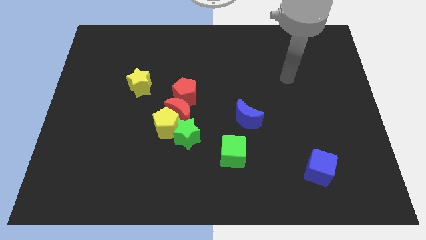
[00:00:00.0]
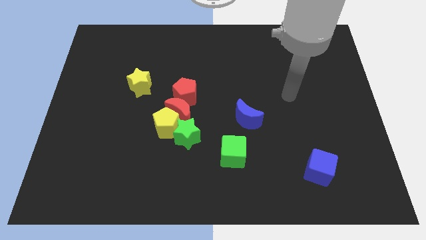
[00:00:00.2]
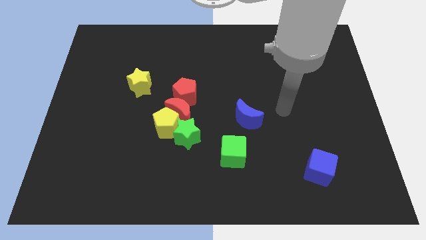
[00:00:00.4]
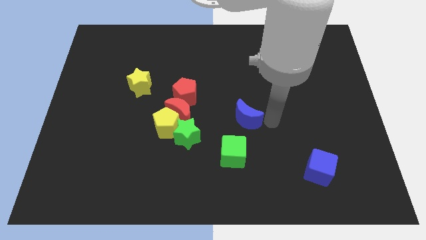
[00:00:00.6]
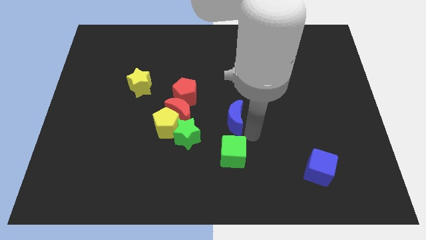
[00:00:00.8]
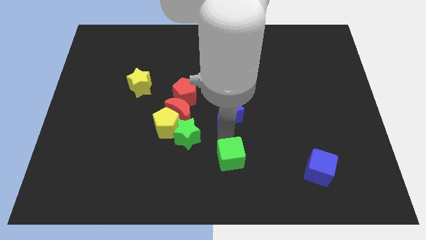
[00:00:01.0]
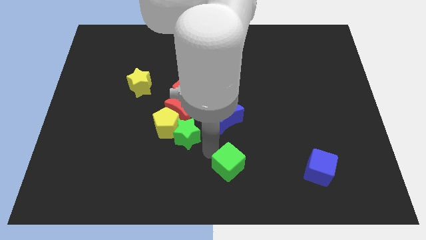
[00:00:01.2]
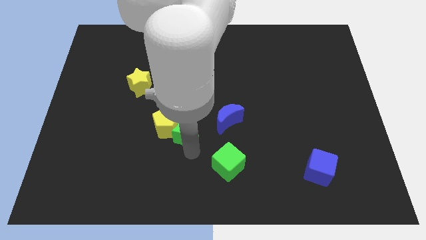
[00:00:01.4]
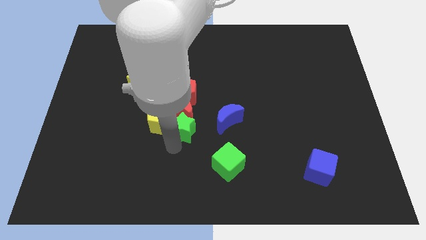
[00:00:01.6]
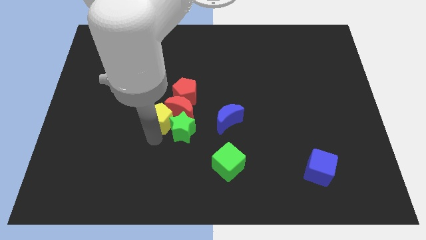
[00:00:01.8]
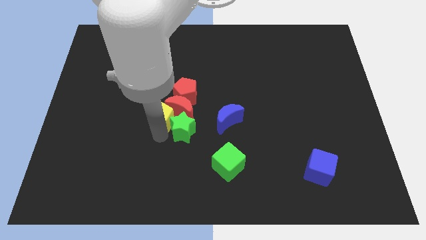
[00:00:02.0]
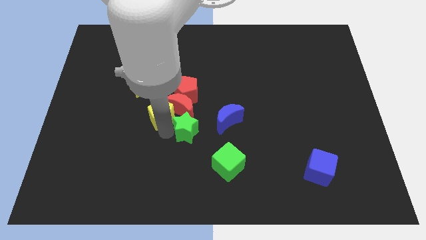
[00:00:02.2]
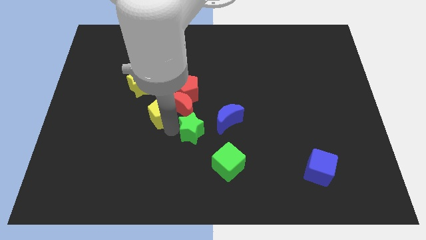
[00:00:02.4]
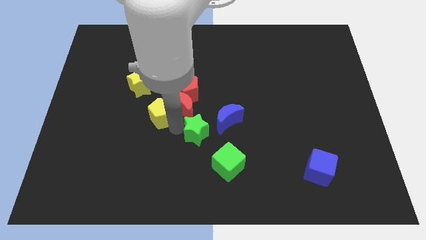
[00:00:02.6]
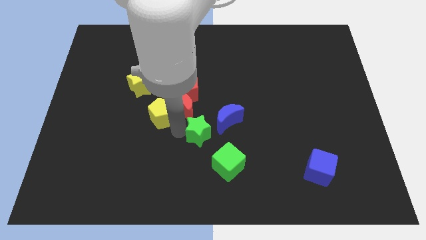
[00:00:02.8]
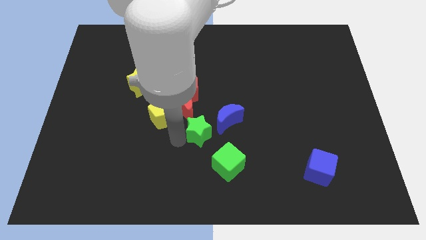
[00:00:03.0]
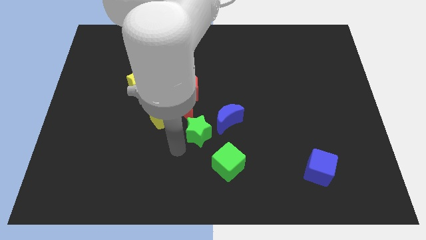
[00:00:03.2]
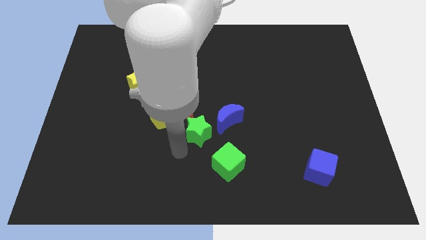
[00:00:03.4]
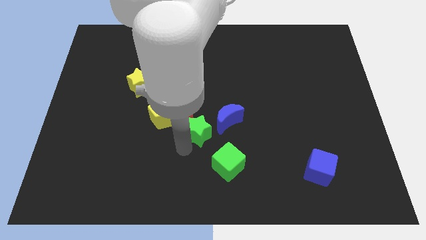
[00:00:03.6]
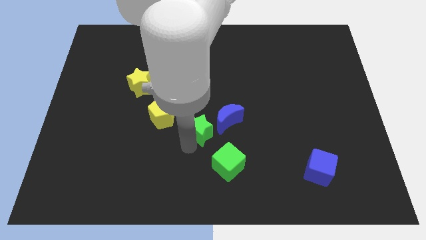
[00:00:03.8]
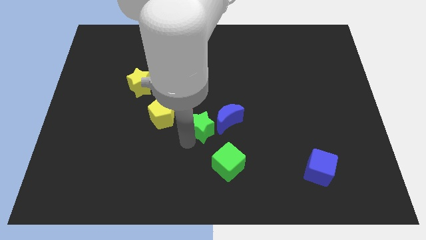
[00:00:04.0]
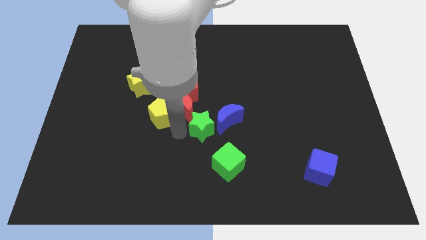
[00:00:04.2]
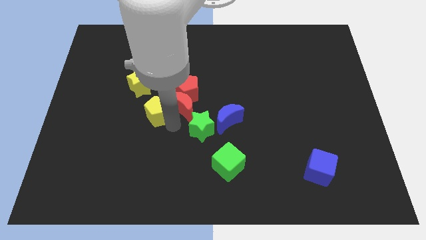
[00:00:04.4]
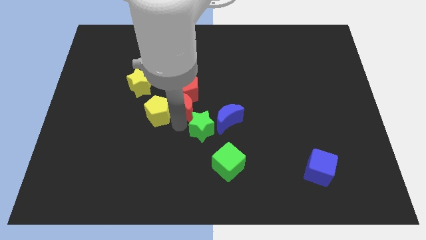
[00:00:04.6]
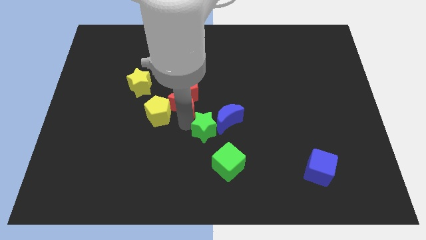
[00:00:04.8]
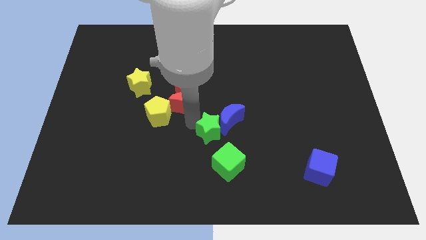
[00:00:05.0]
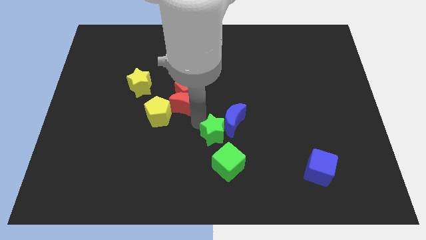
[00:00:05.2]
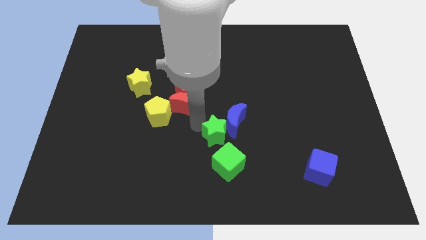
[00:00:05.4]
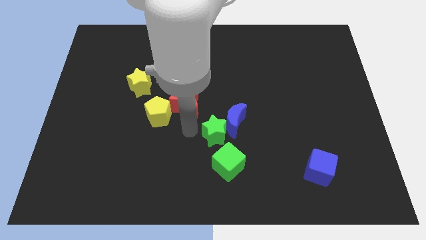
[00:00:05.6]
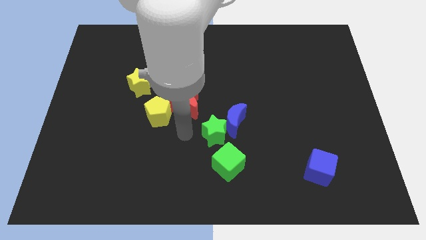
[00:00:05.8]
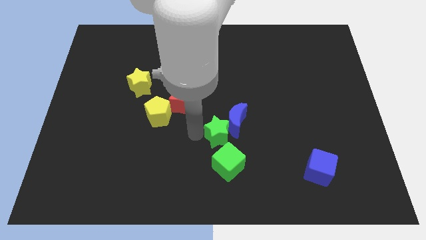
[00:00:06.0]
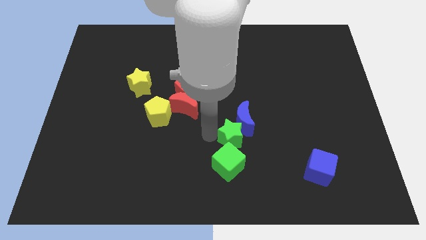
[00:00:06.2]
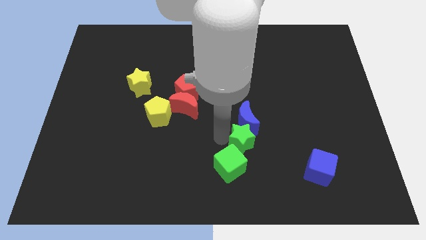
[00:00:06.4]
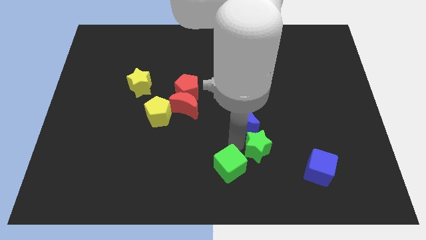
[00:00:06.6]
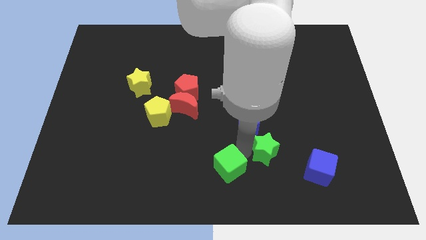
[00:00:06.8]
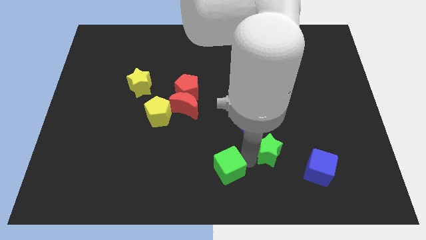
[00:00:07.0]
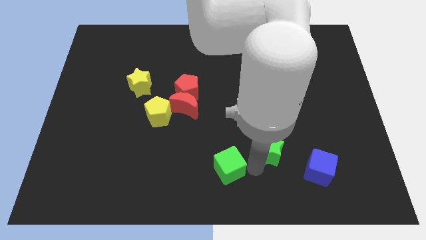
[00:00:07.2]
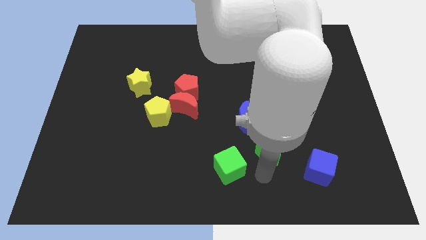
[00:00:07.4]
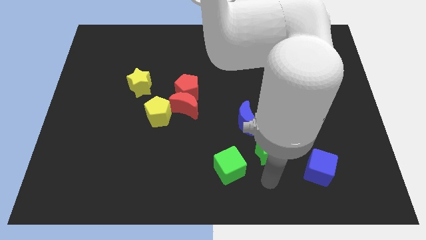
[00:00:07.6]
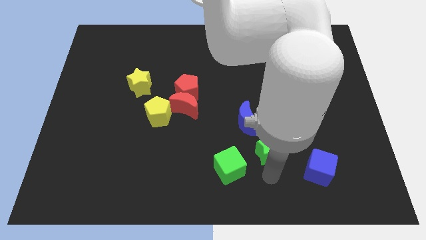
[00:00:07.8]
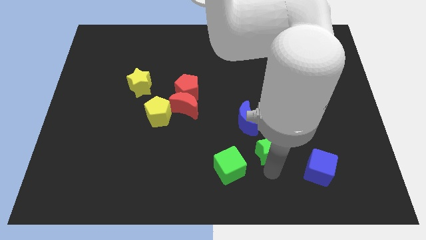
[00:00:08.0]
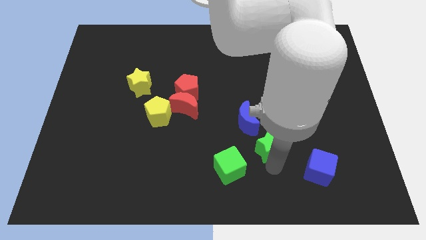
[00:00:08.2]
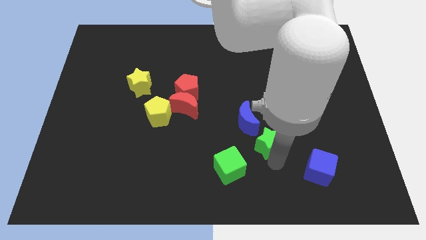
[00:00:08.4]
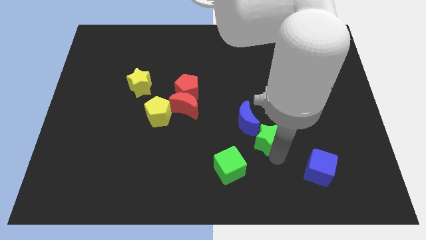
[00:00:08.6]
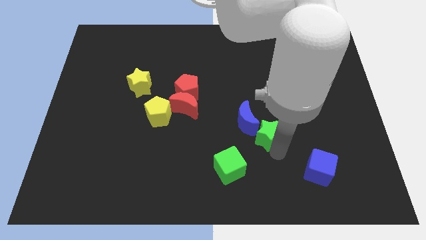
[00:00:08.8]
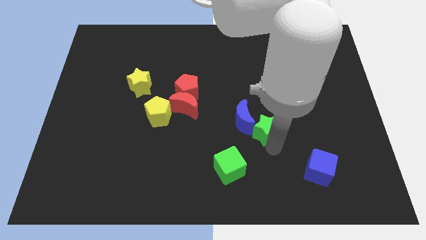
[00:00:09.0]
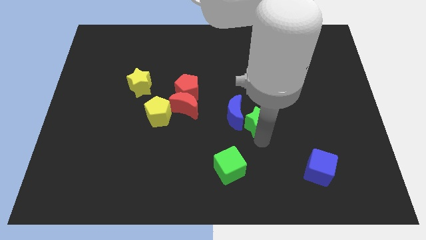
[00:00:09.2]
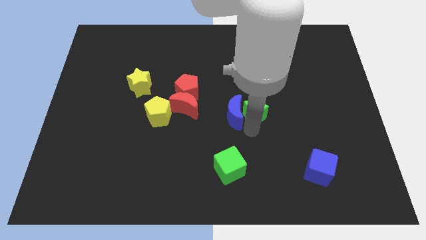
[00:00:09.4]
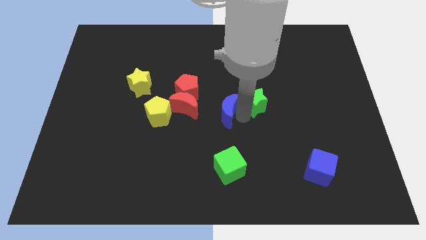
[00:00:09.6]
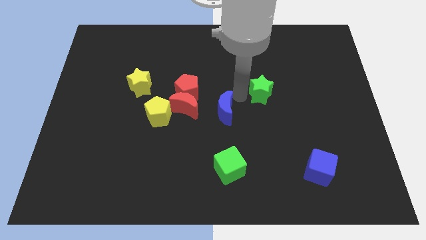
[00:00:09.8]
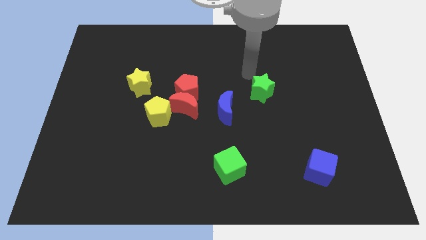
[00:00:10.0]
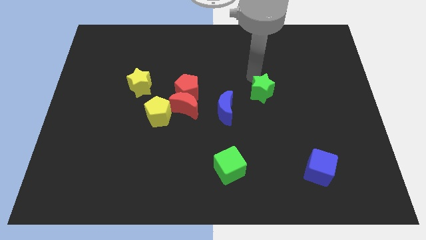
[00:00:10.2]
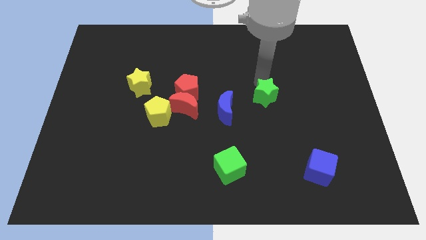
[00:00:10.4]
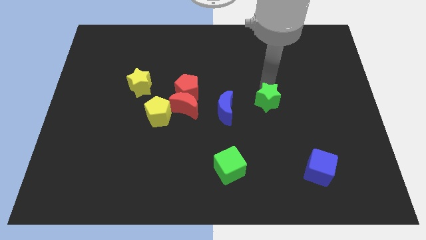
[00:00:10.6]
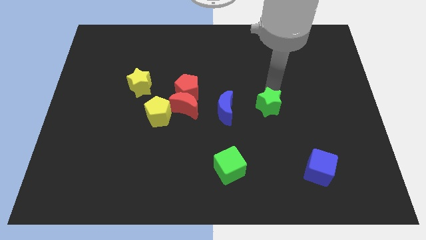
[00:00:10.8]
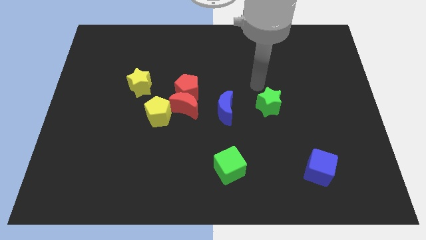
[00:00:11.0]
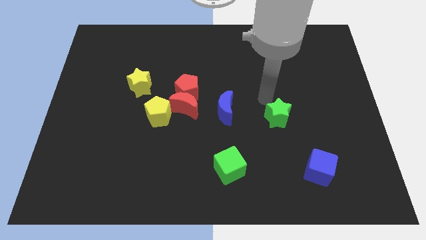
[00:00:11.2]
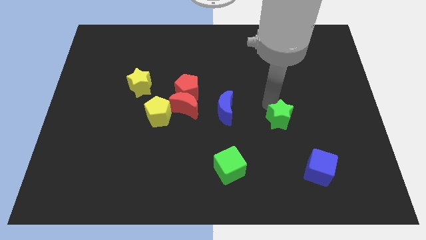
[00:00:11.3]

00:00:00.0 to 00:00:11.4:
move the green star right

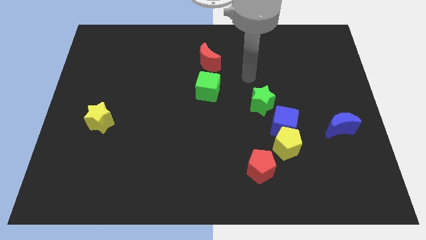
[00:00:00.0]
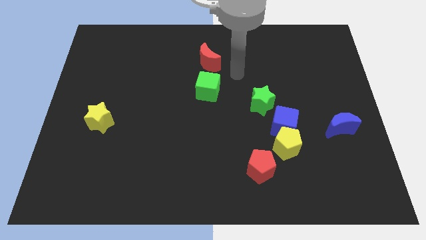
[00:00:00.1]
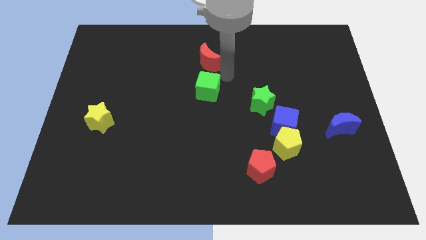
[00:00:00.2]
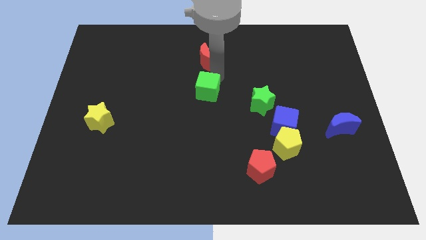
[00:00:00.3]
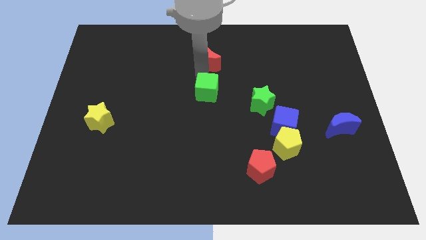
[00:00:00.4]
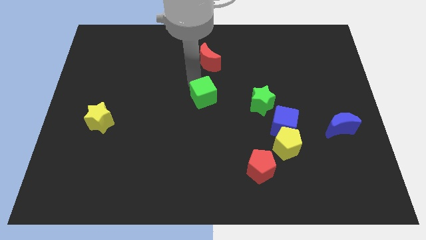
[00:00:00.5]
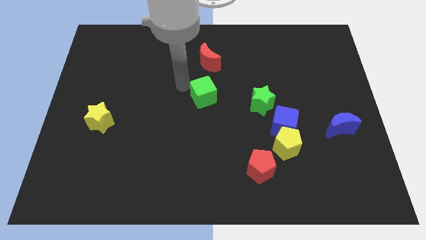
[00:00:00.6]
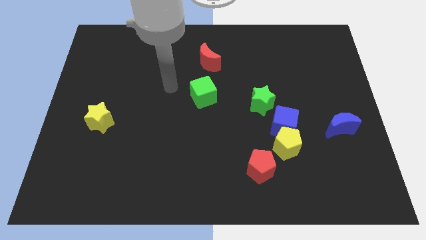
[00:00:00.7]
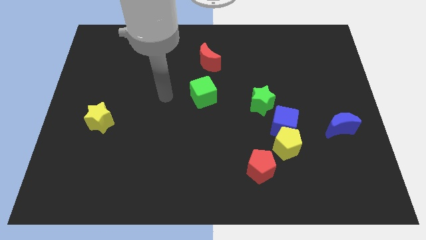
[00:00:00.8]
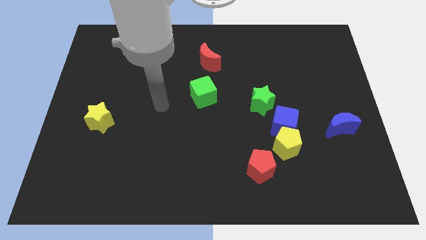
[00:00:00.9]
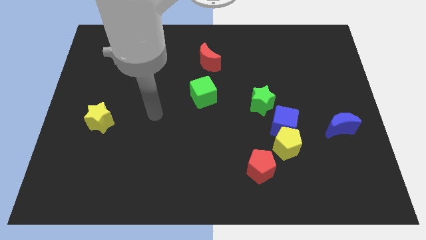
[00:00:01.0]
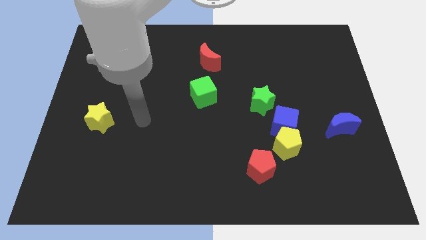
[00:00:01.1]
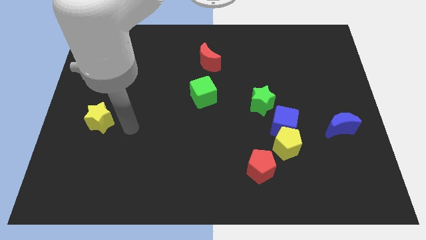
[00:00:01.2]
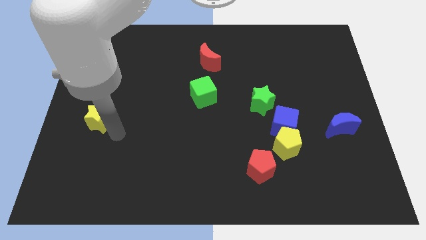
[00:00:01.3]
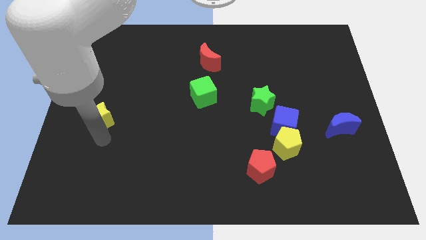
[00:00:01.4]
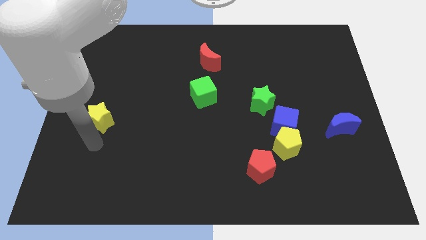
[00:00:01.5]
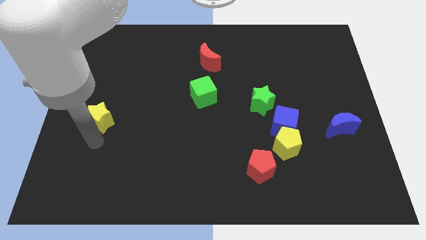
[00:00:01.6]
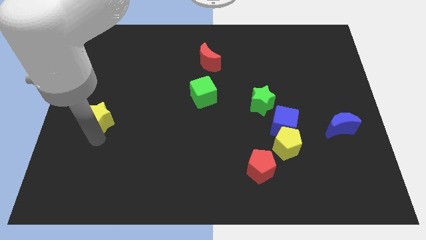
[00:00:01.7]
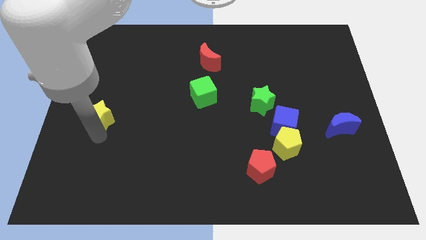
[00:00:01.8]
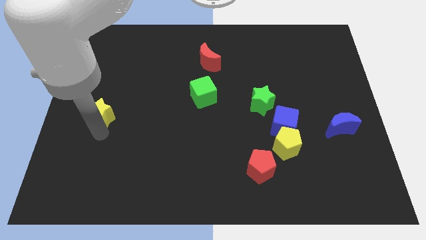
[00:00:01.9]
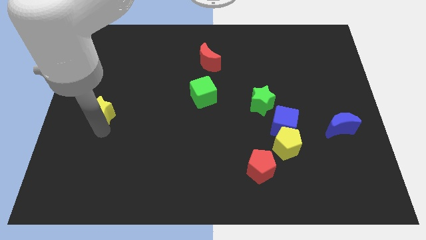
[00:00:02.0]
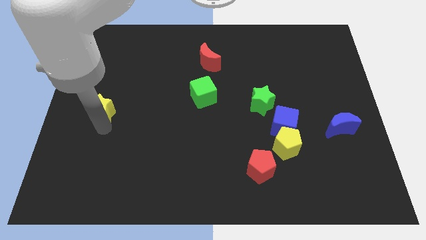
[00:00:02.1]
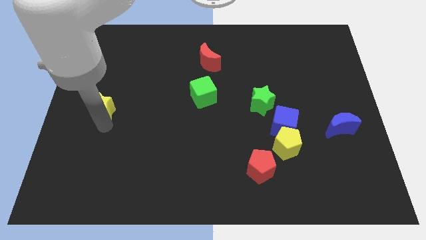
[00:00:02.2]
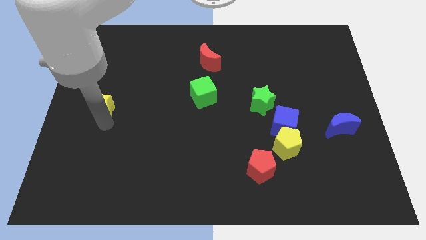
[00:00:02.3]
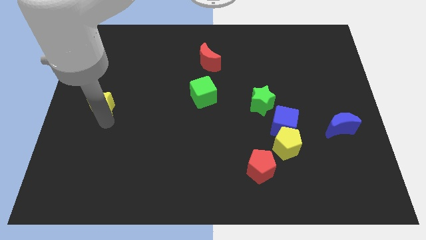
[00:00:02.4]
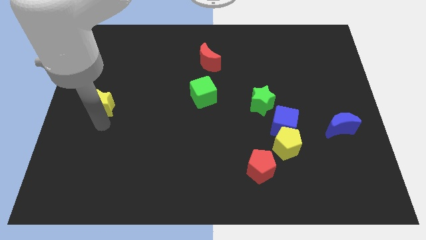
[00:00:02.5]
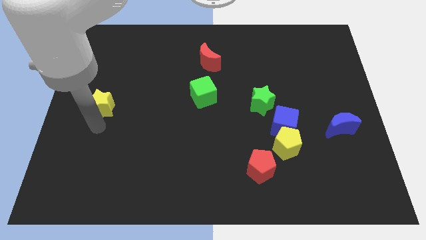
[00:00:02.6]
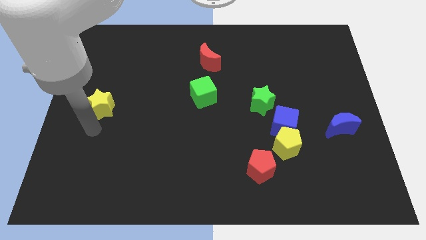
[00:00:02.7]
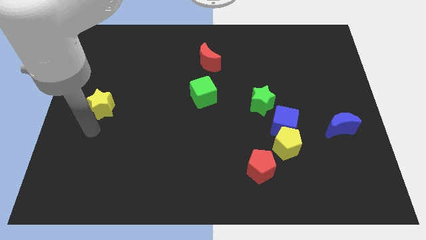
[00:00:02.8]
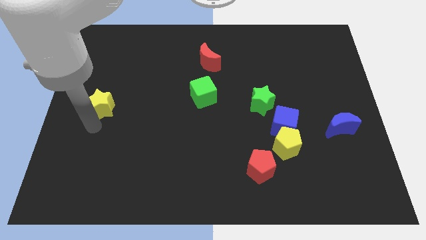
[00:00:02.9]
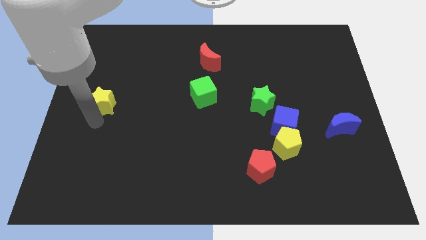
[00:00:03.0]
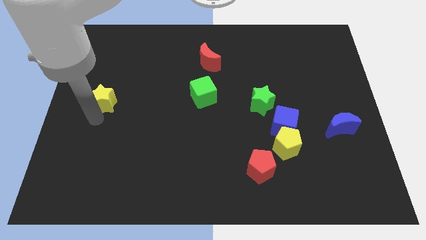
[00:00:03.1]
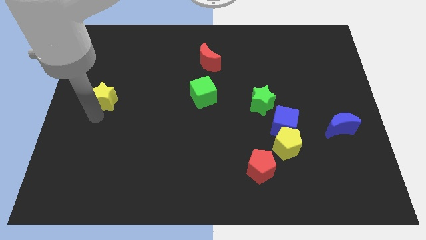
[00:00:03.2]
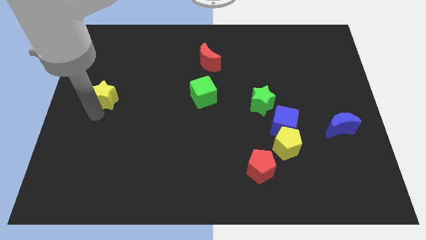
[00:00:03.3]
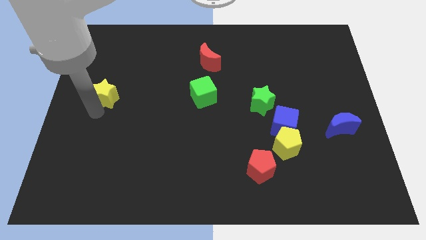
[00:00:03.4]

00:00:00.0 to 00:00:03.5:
move the yellow star up a little bit
